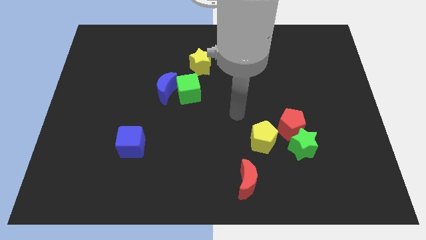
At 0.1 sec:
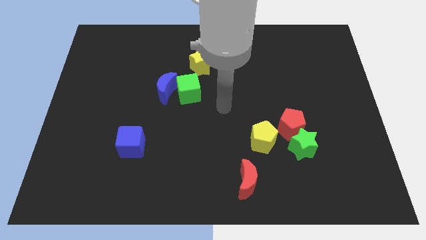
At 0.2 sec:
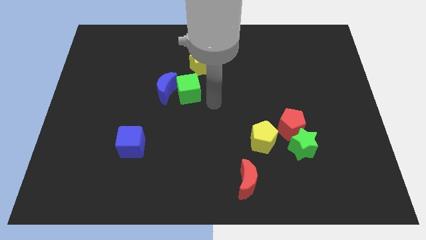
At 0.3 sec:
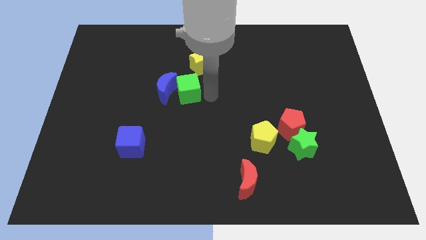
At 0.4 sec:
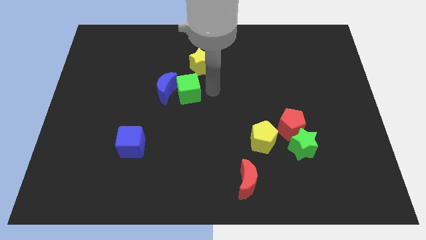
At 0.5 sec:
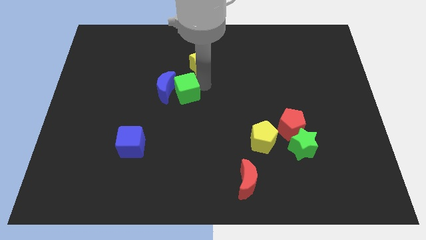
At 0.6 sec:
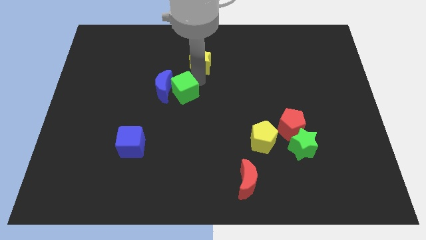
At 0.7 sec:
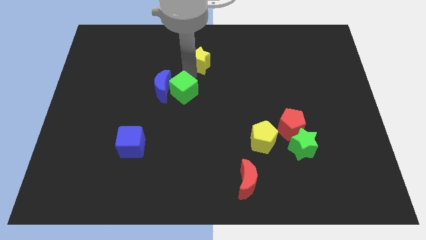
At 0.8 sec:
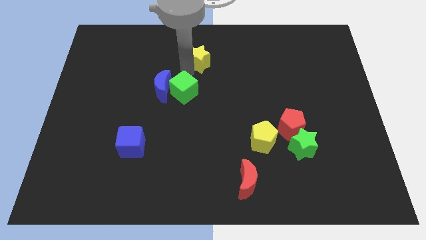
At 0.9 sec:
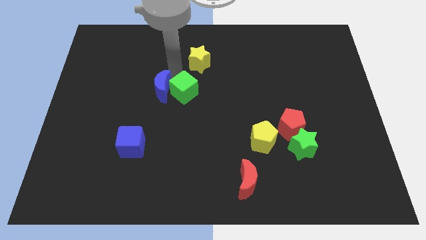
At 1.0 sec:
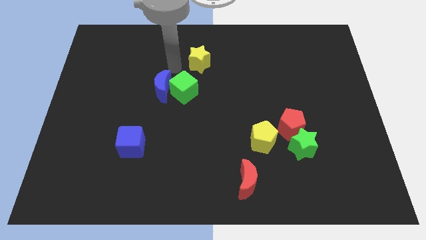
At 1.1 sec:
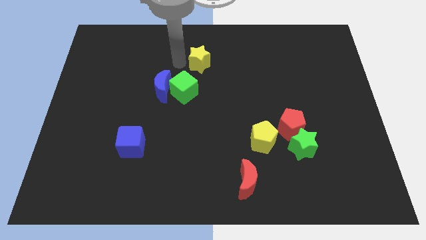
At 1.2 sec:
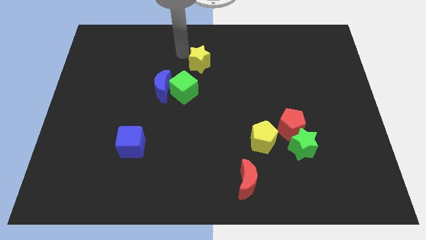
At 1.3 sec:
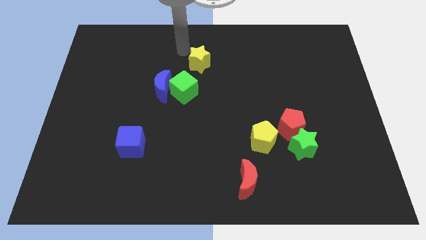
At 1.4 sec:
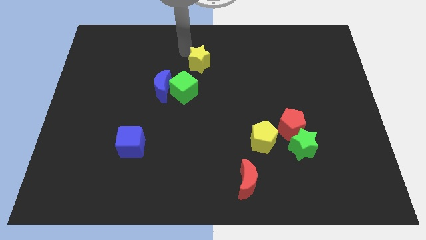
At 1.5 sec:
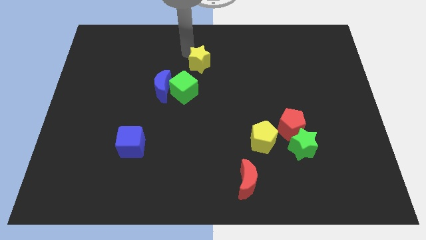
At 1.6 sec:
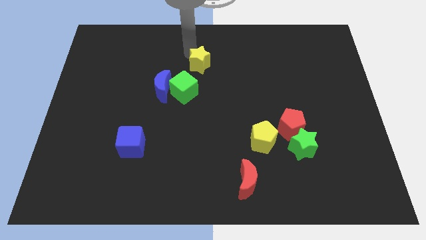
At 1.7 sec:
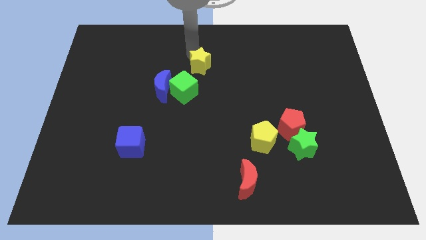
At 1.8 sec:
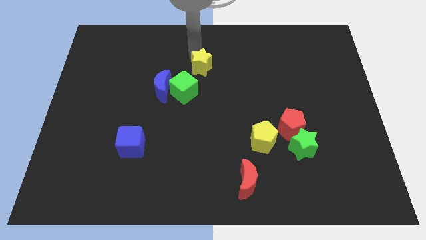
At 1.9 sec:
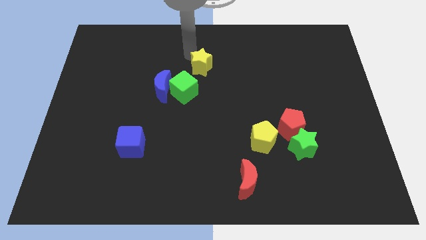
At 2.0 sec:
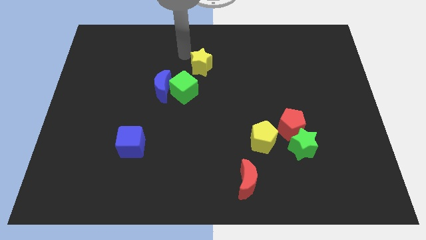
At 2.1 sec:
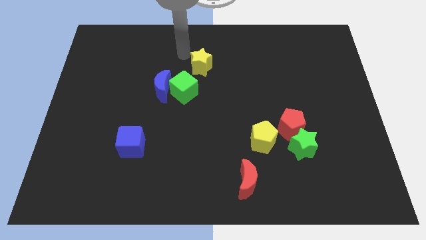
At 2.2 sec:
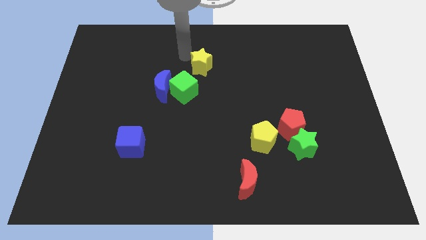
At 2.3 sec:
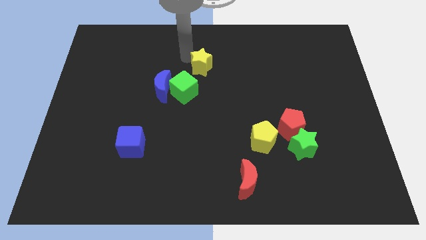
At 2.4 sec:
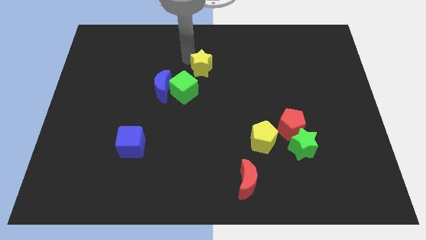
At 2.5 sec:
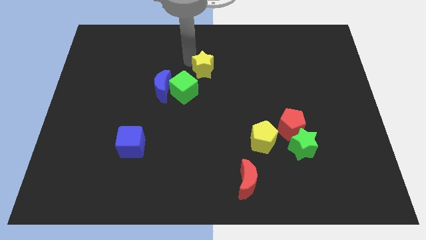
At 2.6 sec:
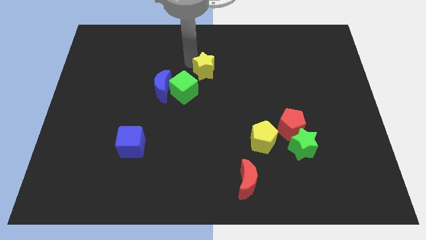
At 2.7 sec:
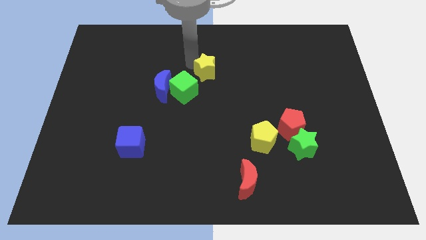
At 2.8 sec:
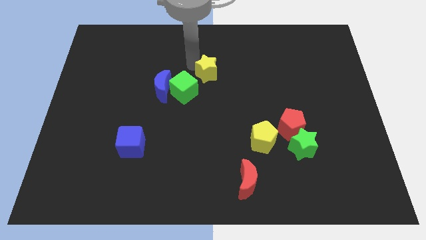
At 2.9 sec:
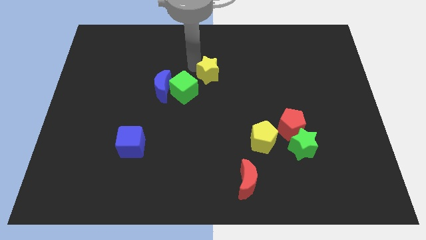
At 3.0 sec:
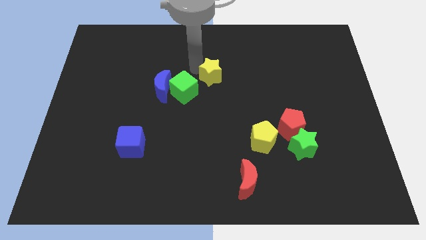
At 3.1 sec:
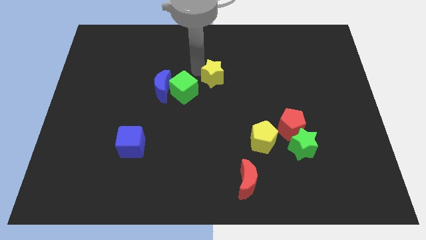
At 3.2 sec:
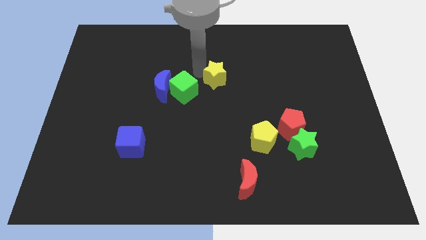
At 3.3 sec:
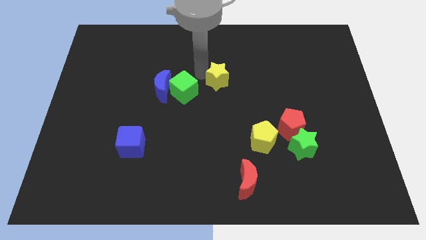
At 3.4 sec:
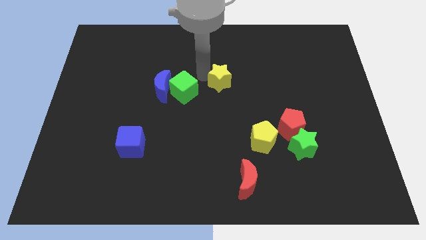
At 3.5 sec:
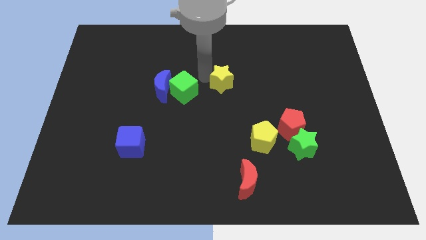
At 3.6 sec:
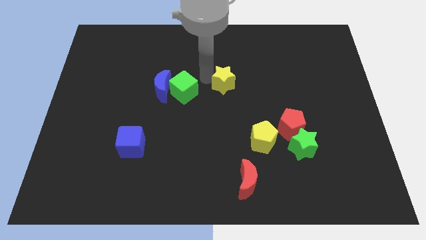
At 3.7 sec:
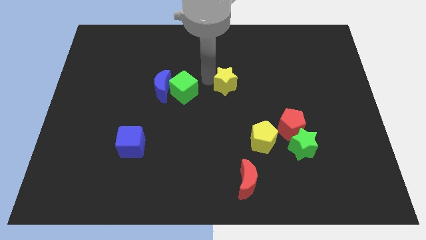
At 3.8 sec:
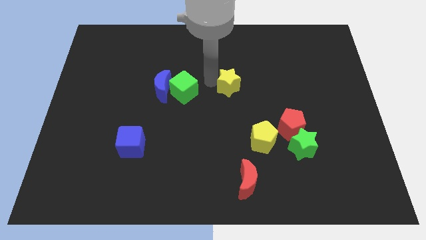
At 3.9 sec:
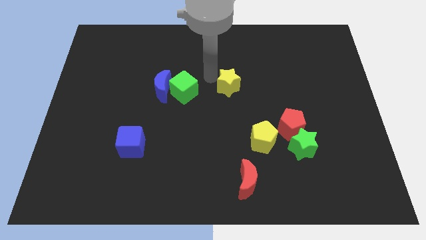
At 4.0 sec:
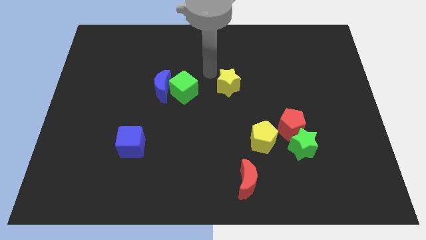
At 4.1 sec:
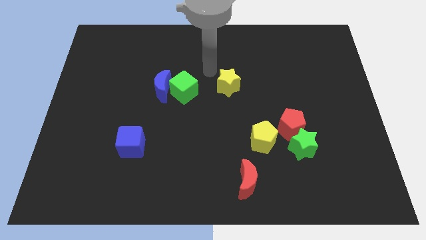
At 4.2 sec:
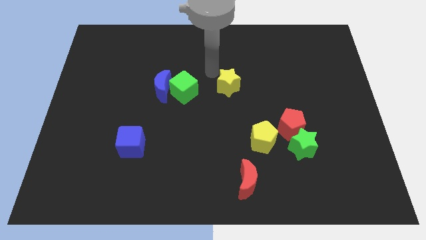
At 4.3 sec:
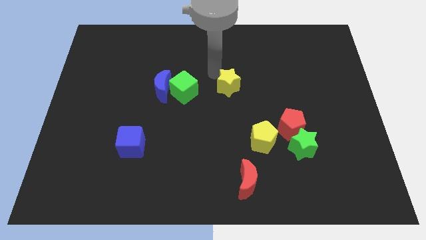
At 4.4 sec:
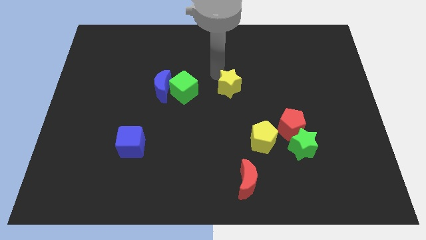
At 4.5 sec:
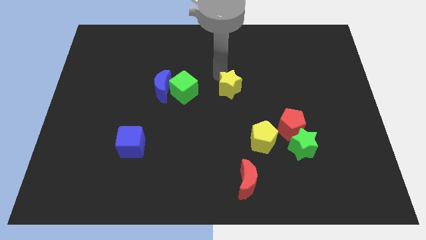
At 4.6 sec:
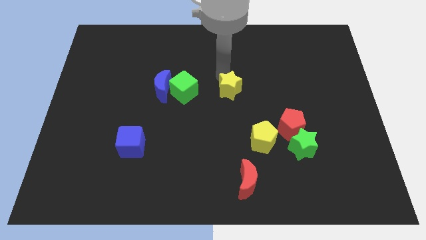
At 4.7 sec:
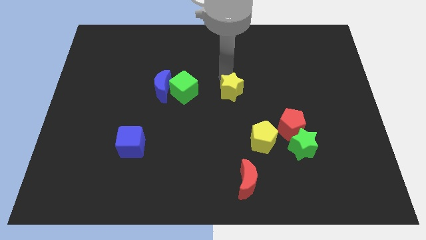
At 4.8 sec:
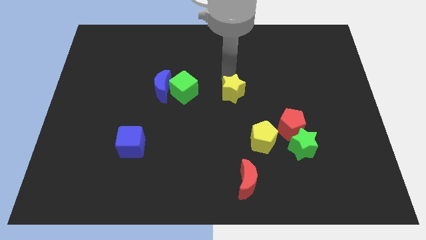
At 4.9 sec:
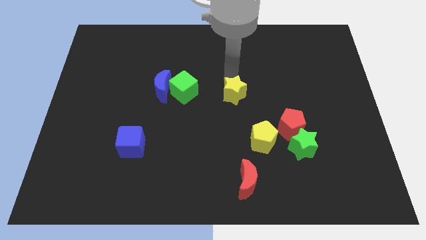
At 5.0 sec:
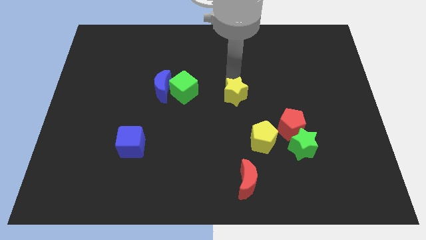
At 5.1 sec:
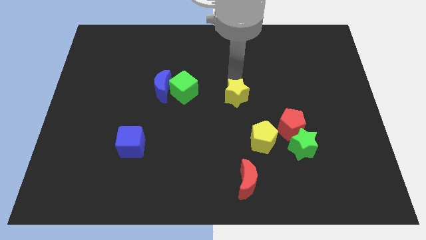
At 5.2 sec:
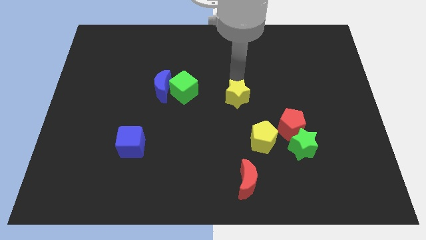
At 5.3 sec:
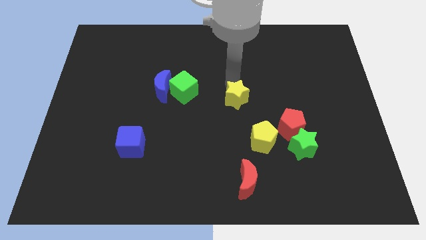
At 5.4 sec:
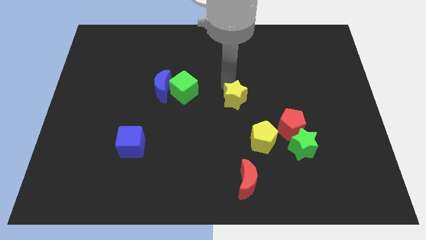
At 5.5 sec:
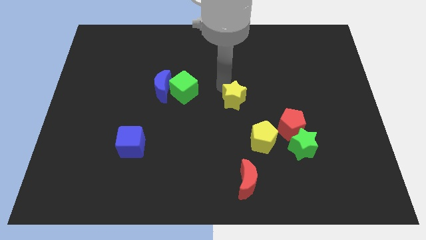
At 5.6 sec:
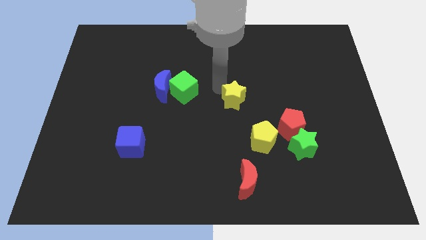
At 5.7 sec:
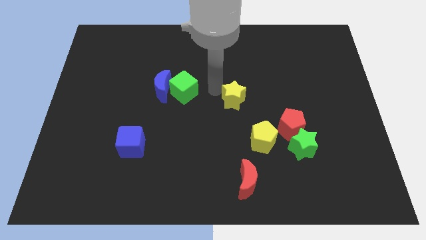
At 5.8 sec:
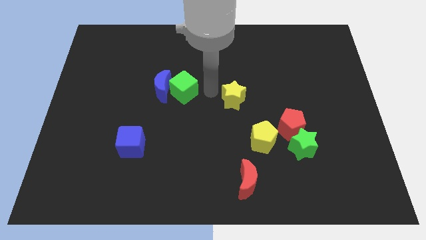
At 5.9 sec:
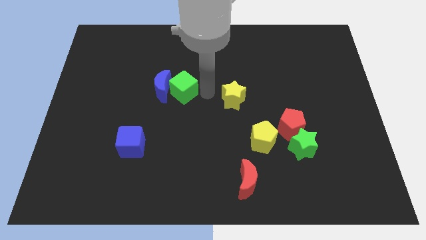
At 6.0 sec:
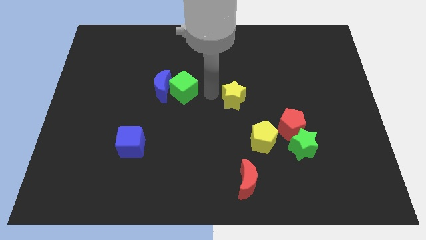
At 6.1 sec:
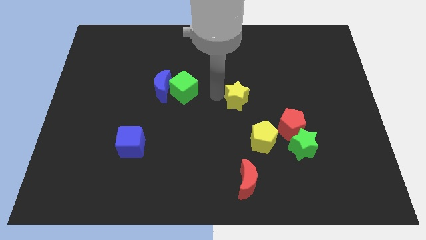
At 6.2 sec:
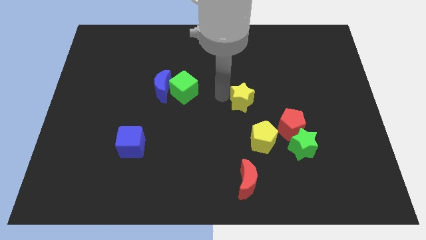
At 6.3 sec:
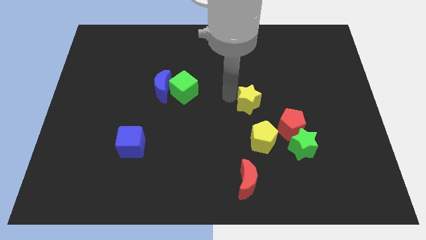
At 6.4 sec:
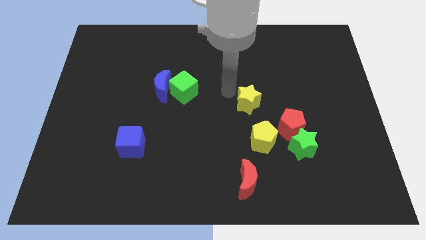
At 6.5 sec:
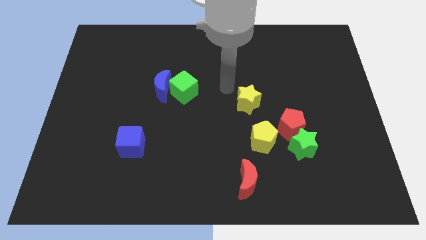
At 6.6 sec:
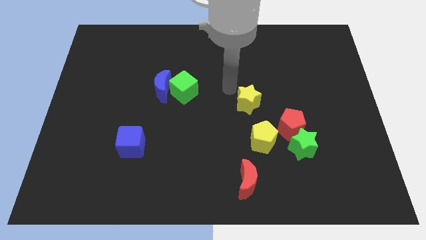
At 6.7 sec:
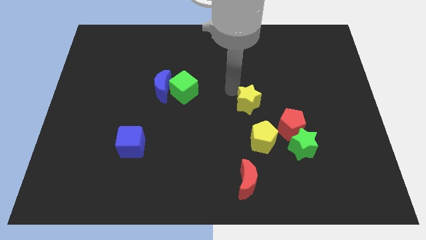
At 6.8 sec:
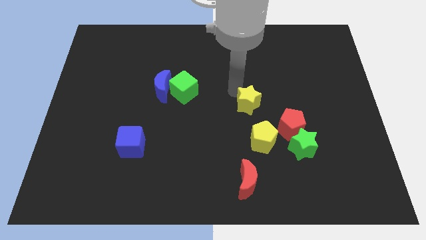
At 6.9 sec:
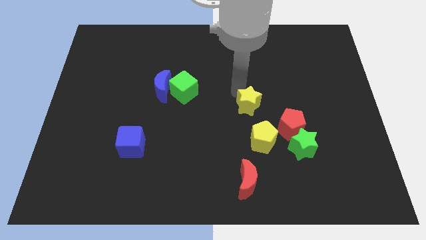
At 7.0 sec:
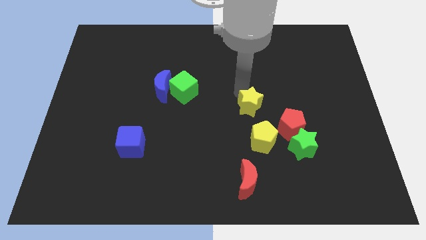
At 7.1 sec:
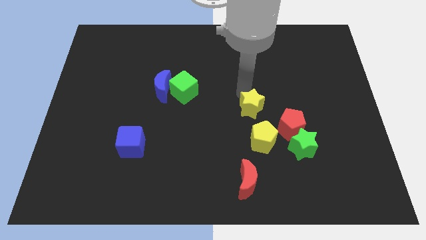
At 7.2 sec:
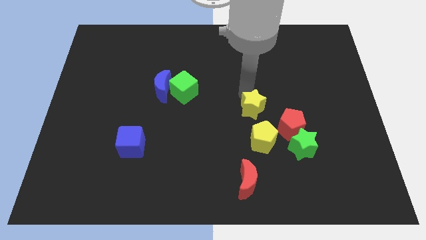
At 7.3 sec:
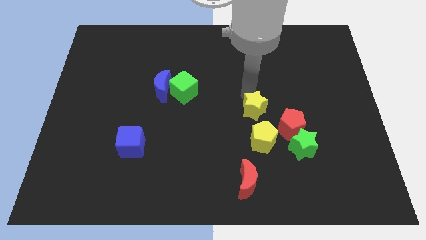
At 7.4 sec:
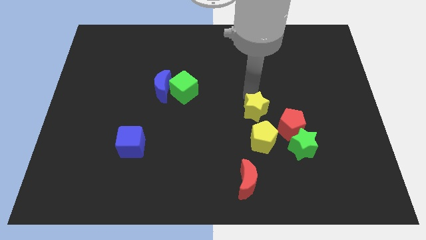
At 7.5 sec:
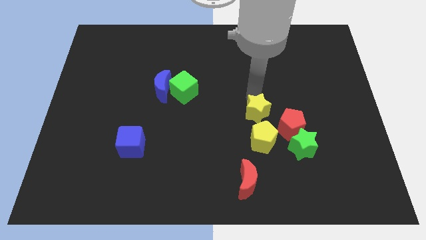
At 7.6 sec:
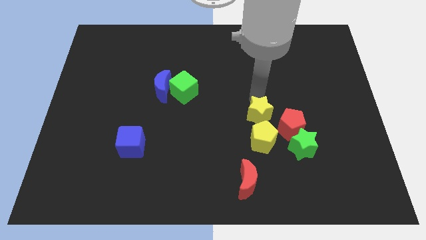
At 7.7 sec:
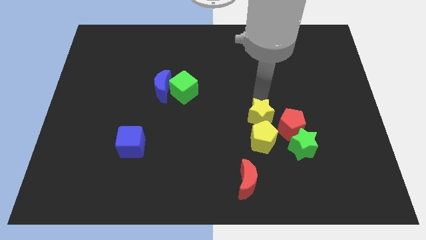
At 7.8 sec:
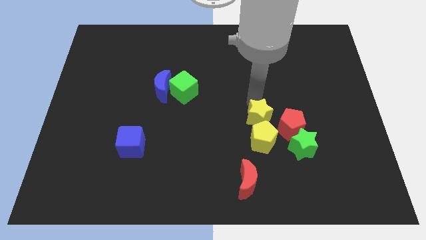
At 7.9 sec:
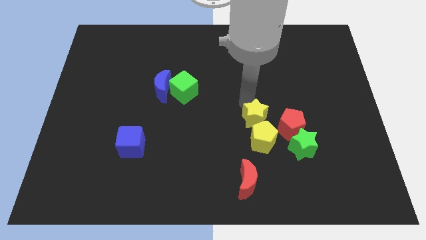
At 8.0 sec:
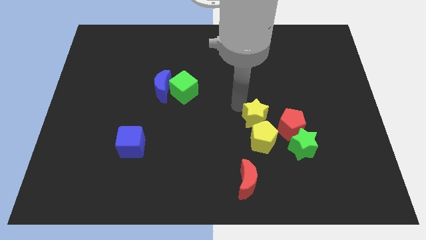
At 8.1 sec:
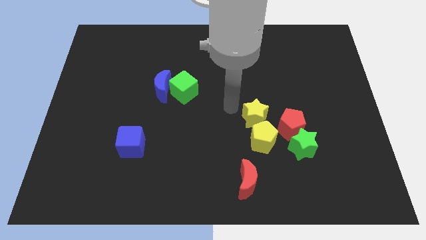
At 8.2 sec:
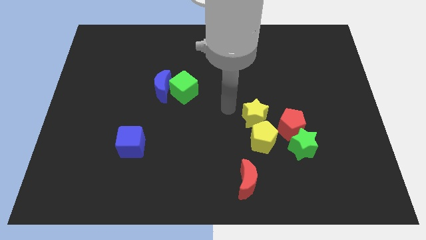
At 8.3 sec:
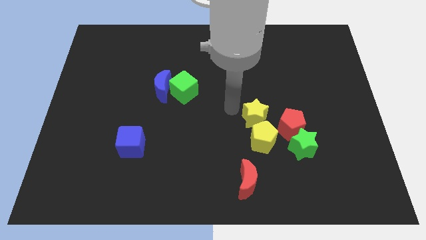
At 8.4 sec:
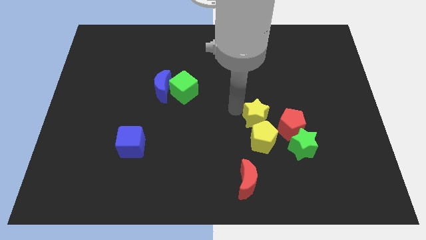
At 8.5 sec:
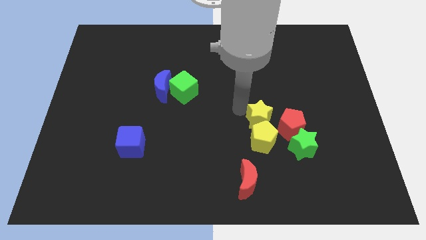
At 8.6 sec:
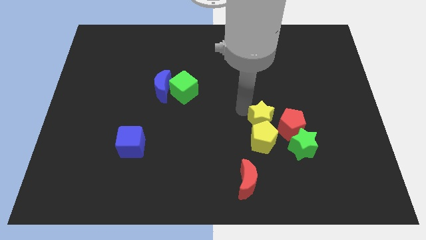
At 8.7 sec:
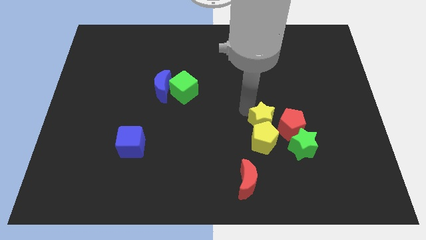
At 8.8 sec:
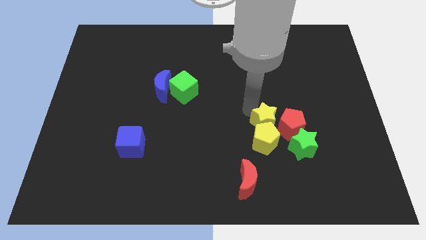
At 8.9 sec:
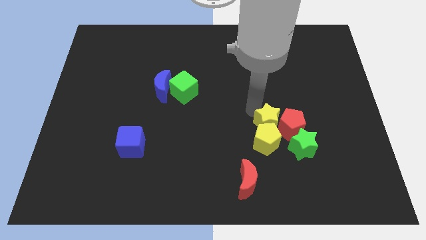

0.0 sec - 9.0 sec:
move the yellow star close to the red pentagon
